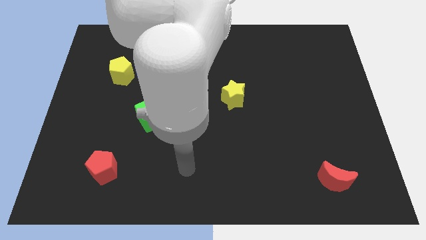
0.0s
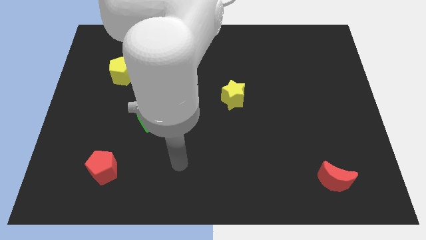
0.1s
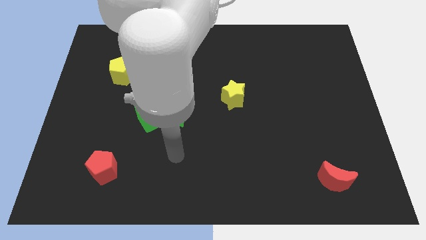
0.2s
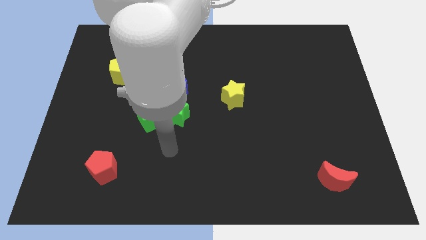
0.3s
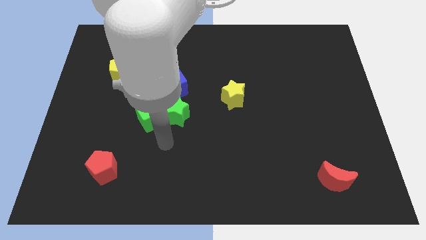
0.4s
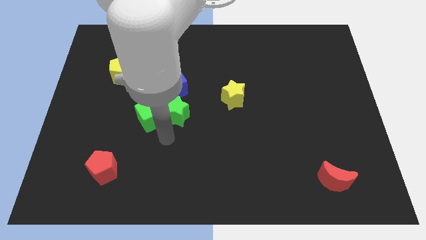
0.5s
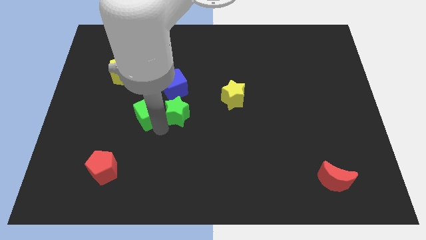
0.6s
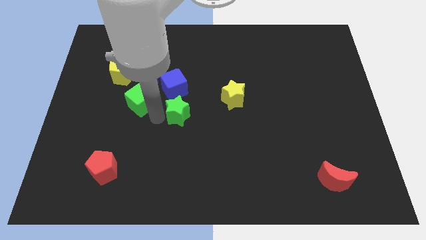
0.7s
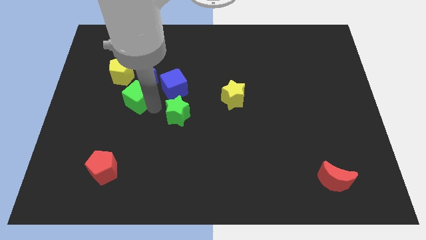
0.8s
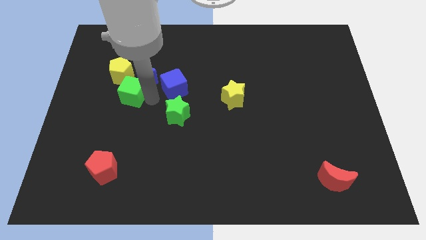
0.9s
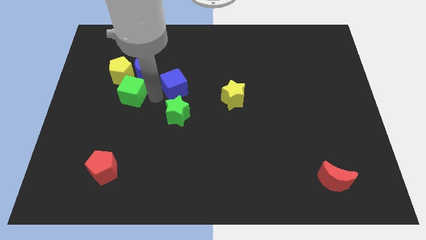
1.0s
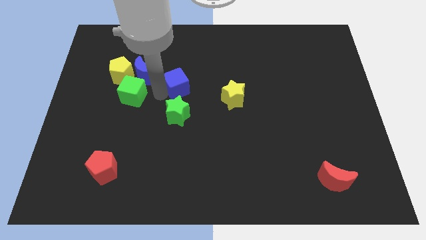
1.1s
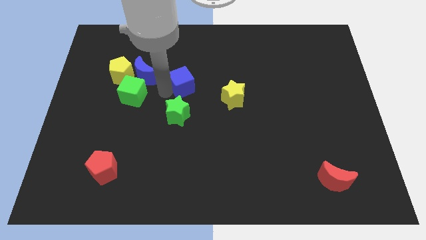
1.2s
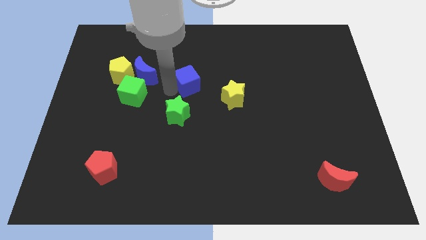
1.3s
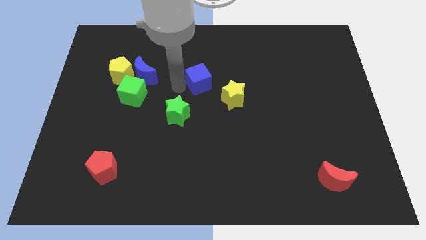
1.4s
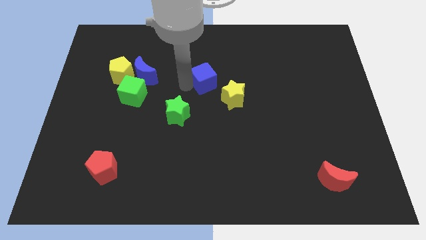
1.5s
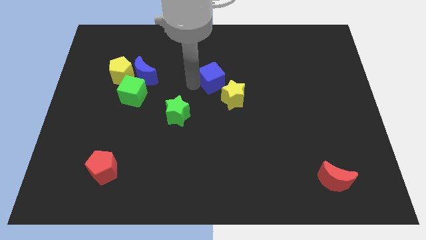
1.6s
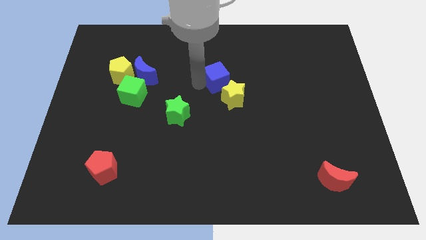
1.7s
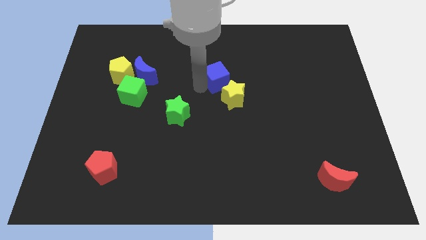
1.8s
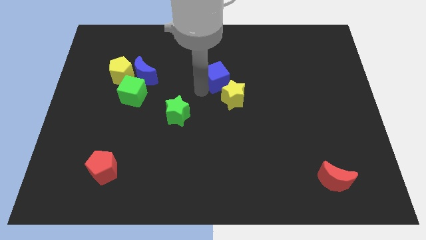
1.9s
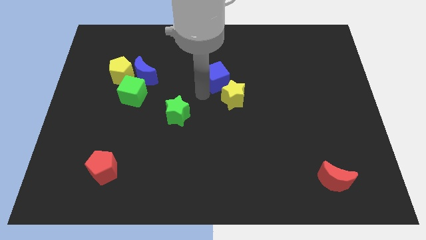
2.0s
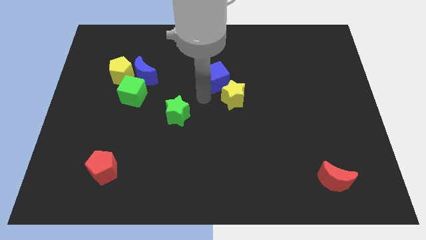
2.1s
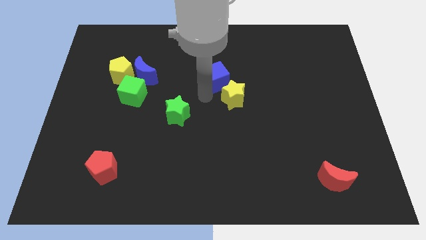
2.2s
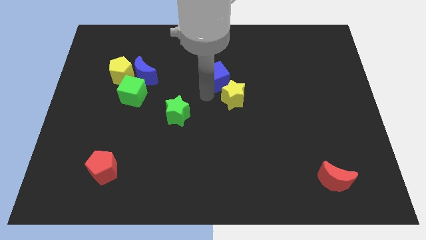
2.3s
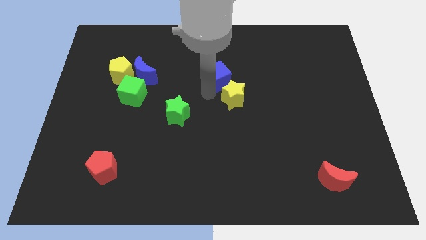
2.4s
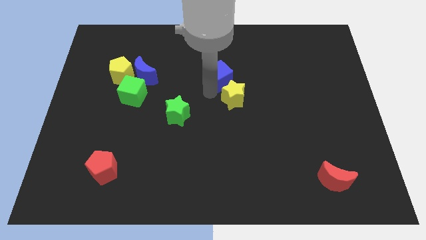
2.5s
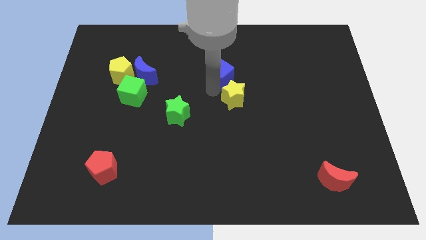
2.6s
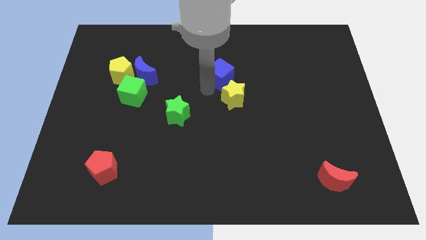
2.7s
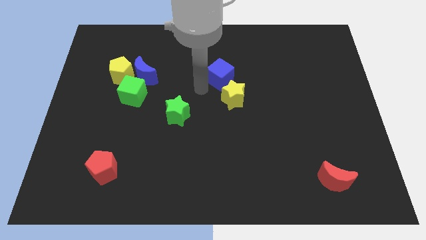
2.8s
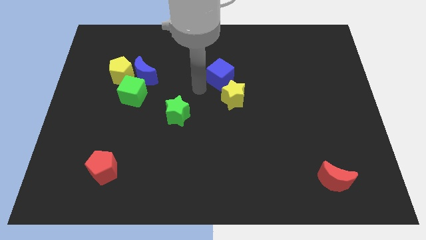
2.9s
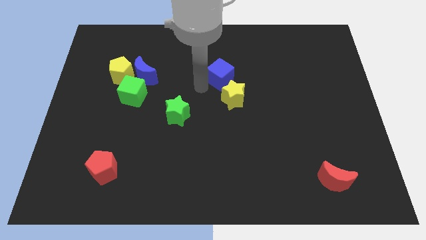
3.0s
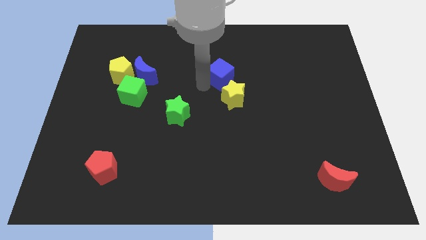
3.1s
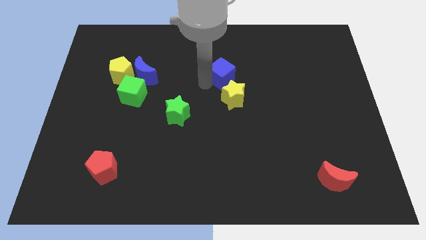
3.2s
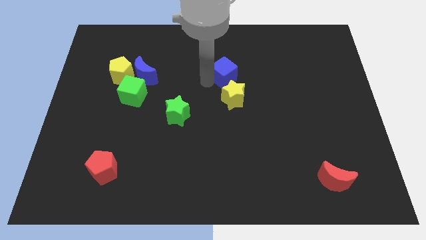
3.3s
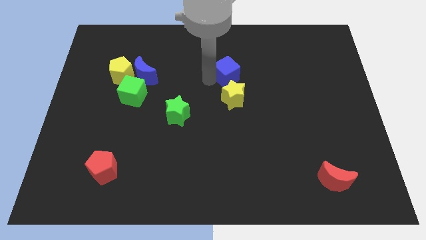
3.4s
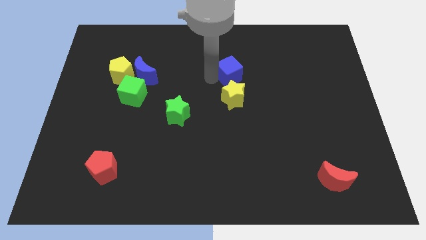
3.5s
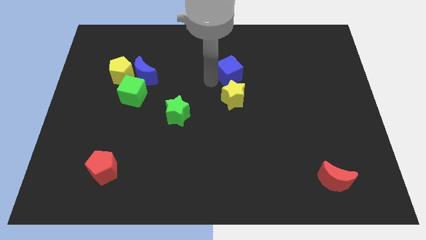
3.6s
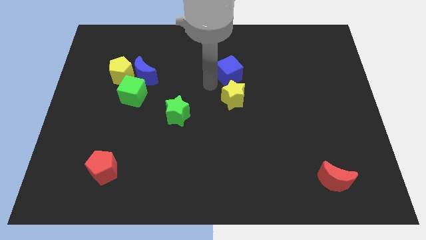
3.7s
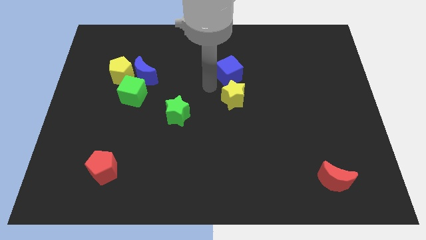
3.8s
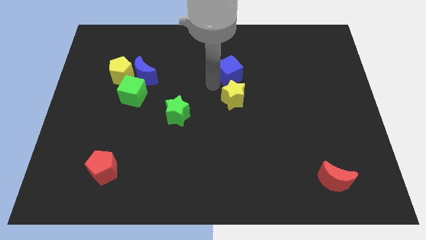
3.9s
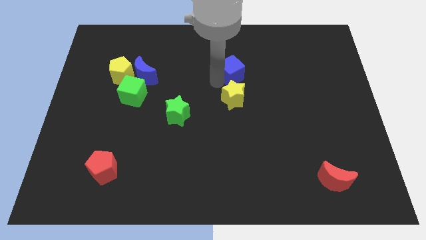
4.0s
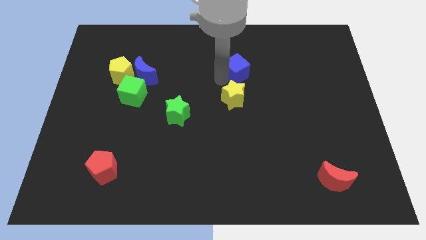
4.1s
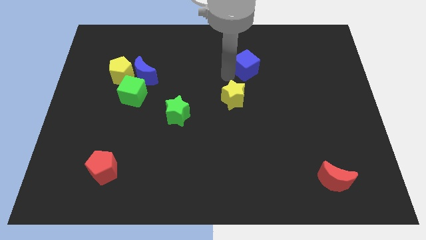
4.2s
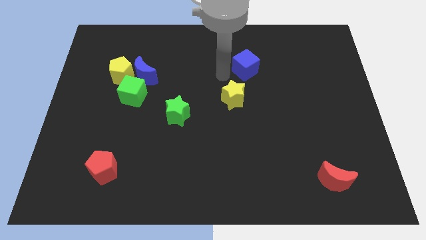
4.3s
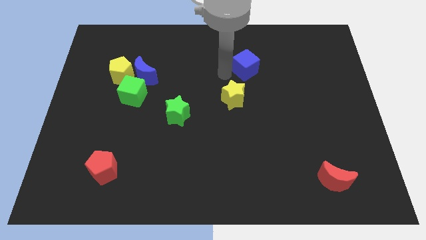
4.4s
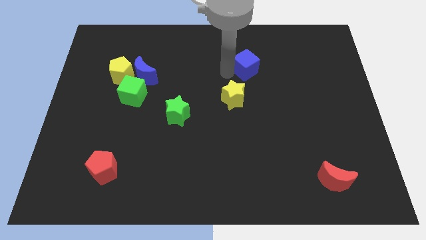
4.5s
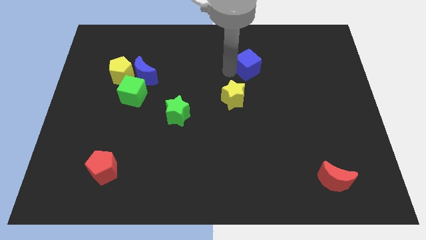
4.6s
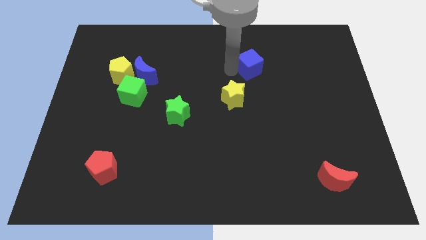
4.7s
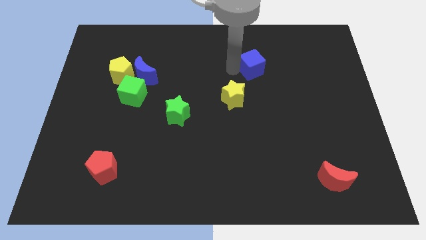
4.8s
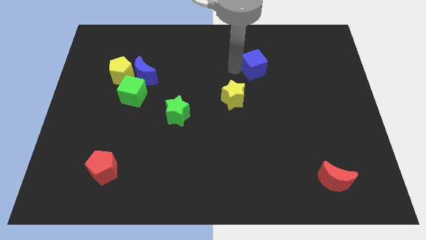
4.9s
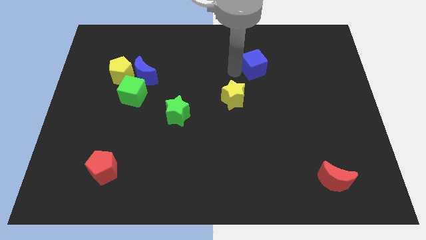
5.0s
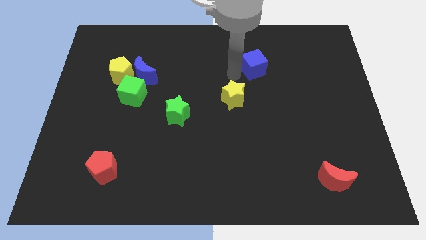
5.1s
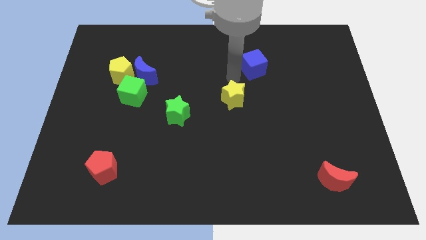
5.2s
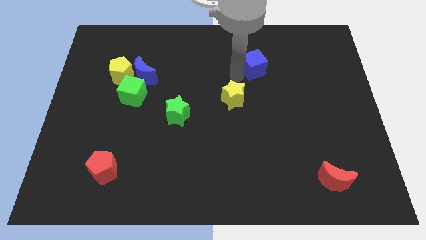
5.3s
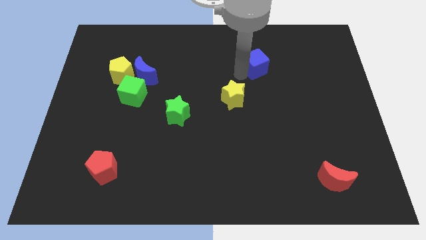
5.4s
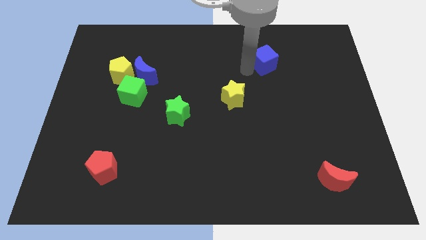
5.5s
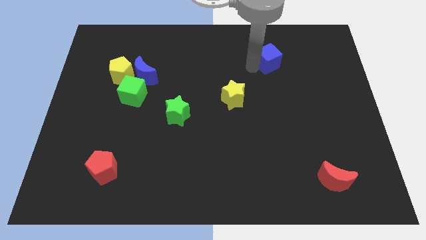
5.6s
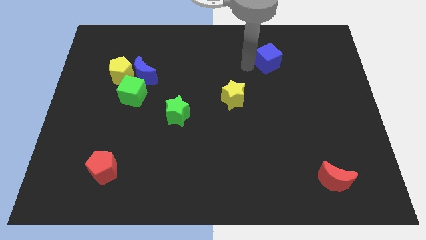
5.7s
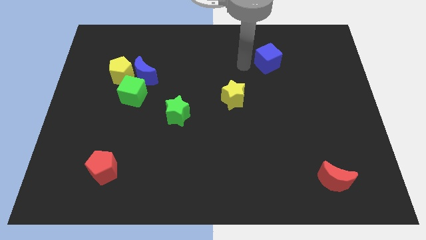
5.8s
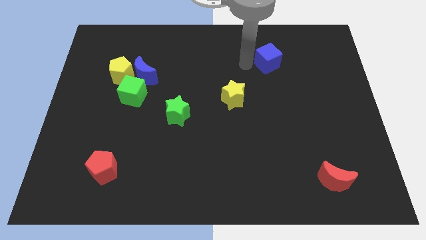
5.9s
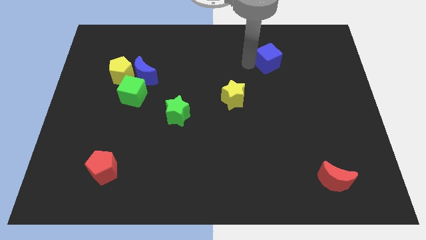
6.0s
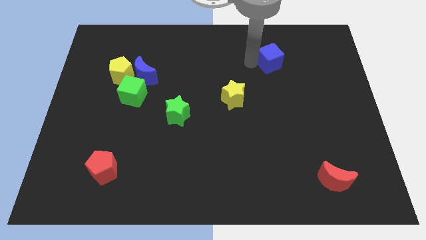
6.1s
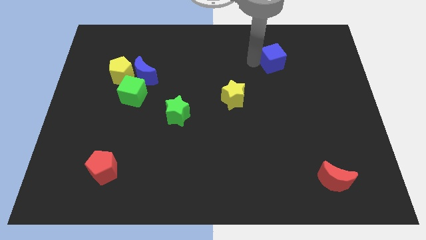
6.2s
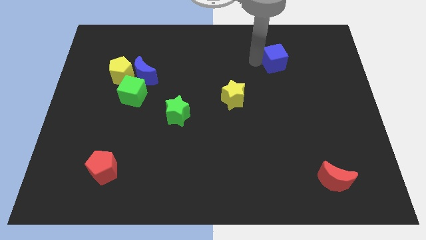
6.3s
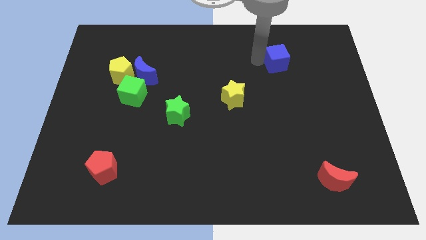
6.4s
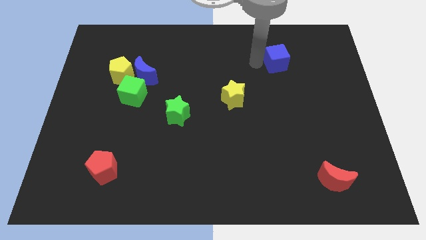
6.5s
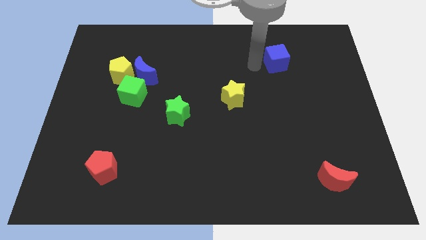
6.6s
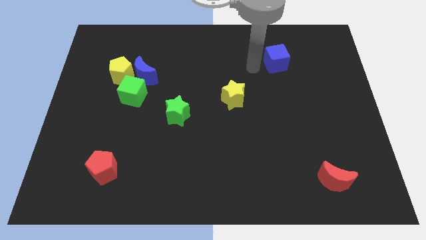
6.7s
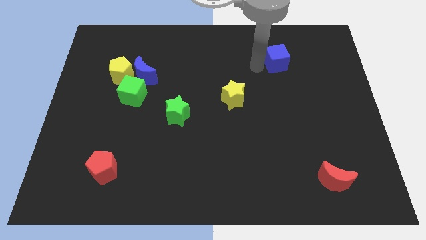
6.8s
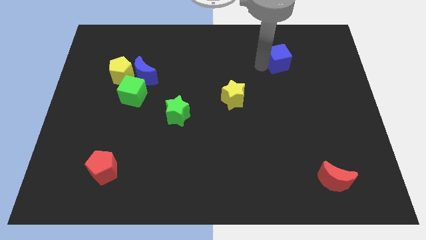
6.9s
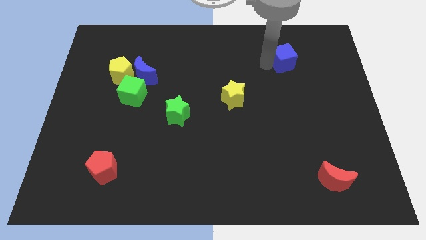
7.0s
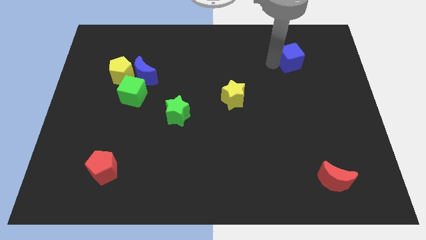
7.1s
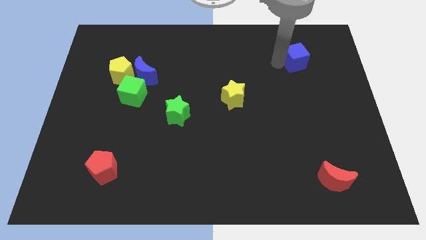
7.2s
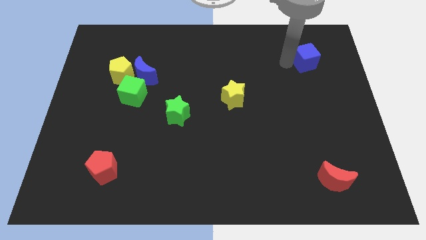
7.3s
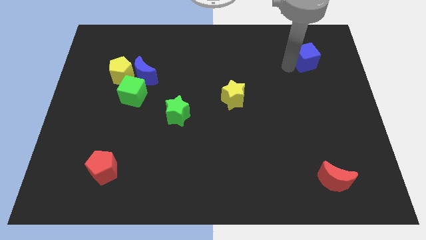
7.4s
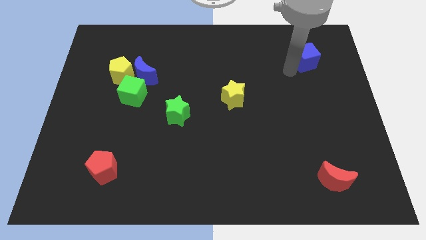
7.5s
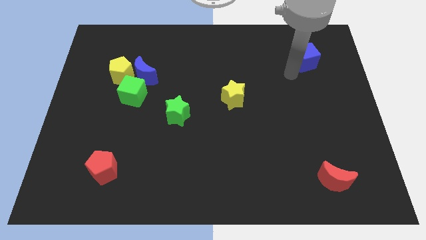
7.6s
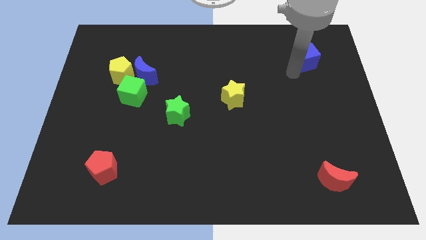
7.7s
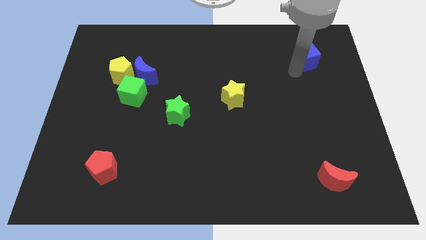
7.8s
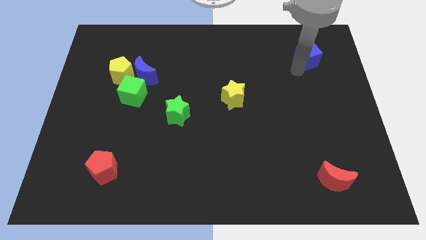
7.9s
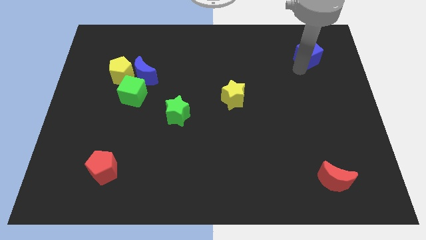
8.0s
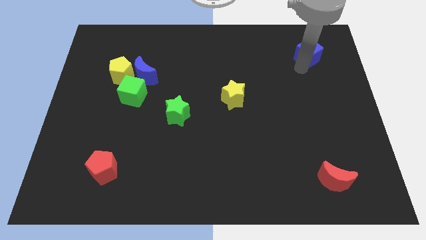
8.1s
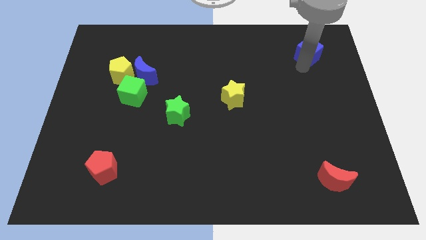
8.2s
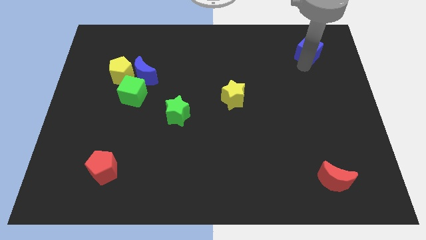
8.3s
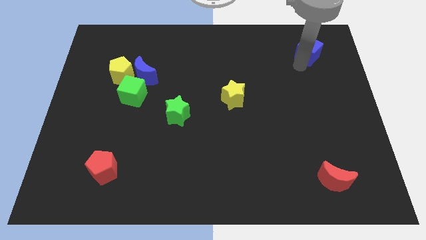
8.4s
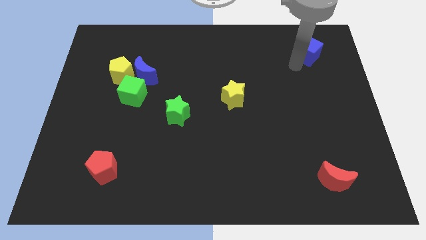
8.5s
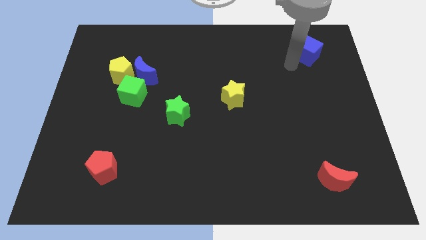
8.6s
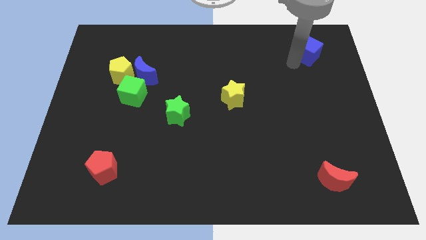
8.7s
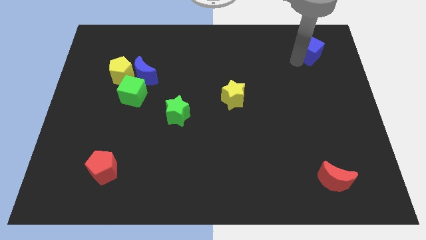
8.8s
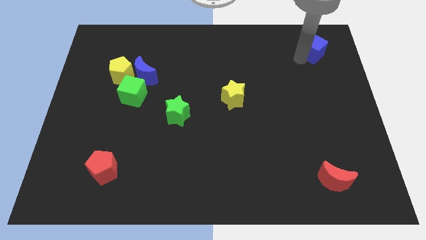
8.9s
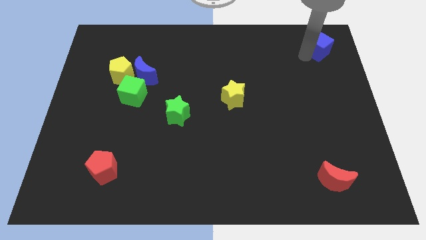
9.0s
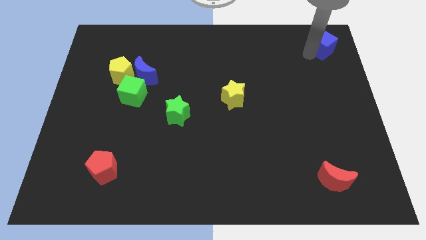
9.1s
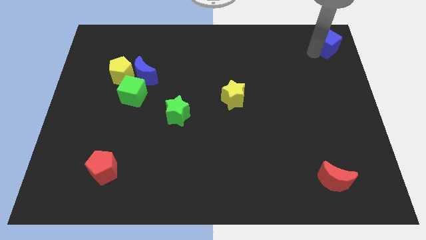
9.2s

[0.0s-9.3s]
slide the blue cube to the top right of the board
